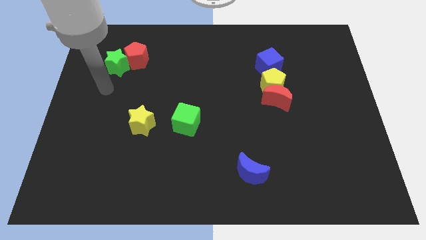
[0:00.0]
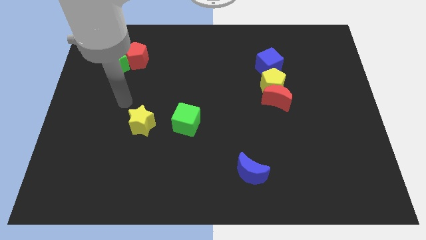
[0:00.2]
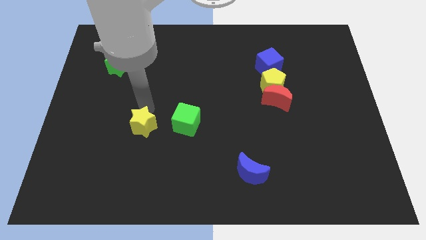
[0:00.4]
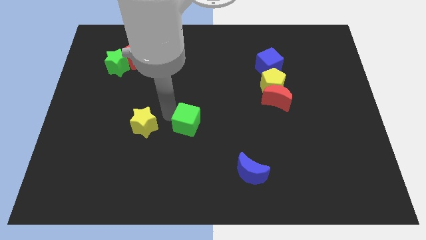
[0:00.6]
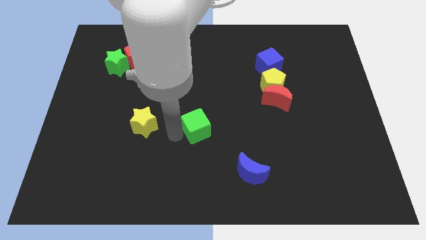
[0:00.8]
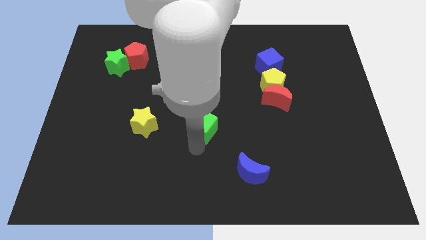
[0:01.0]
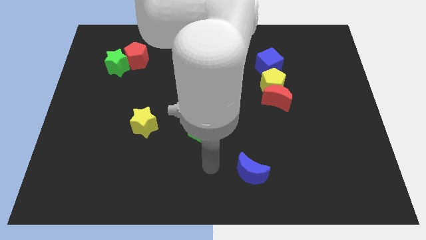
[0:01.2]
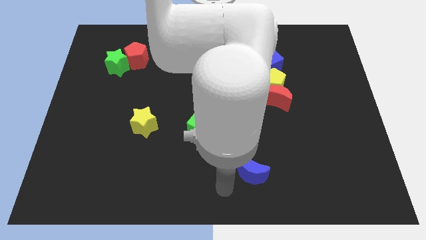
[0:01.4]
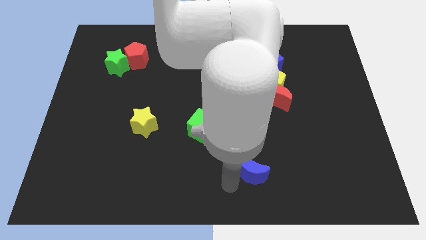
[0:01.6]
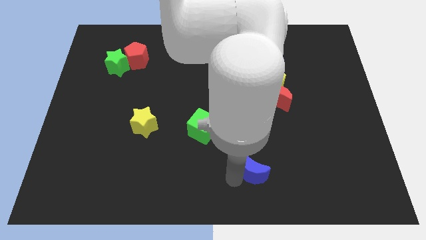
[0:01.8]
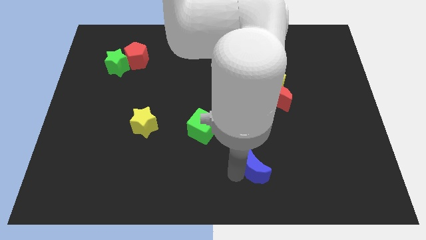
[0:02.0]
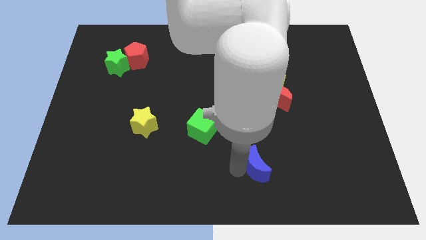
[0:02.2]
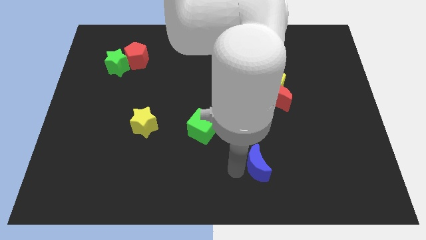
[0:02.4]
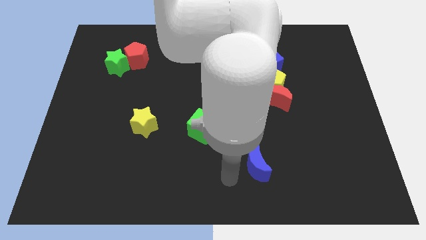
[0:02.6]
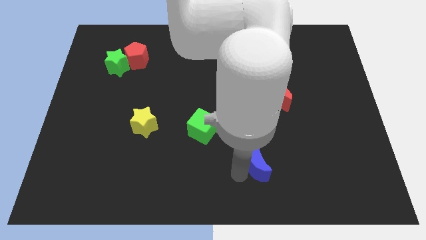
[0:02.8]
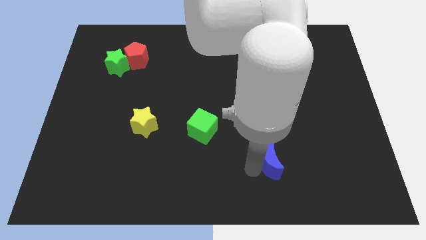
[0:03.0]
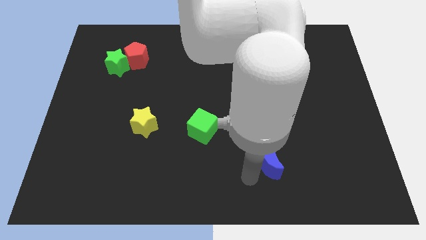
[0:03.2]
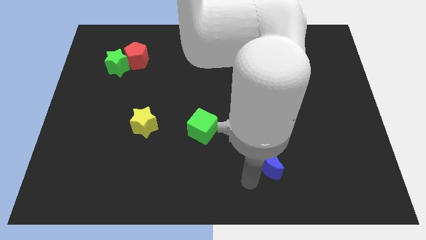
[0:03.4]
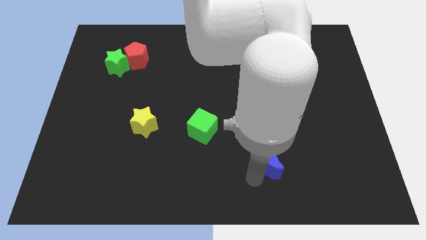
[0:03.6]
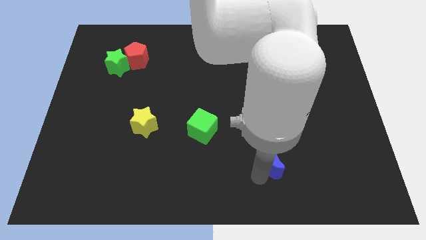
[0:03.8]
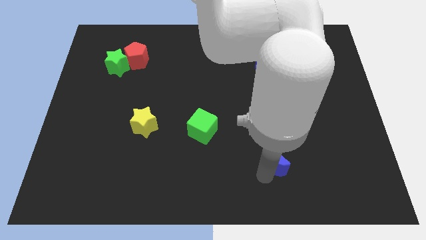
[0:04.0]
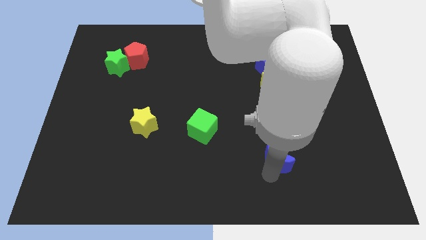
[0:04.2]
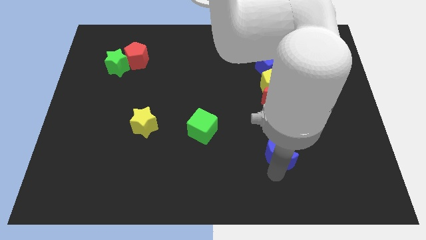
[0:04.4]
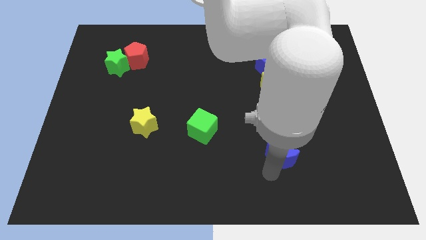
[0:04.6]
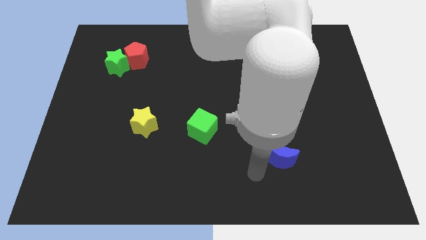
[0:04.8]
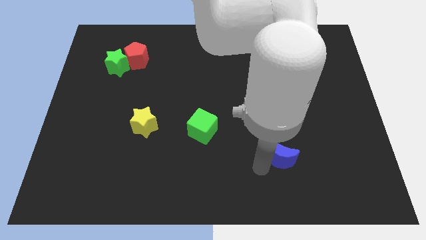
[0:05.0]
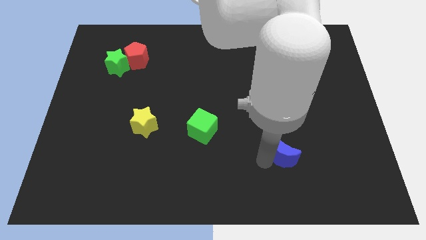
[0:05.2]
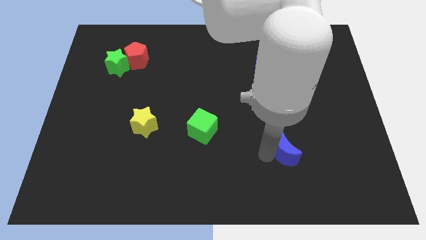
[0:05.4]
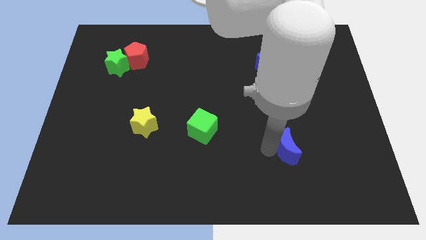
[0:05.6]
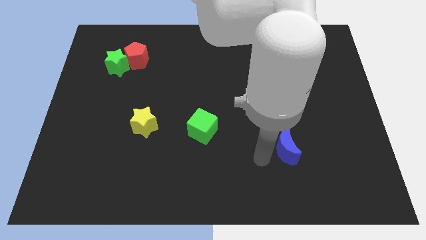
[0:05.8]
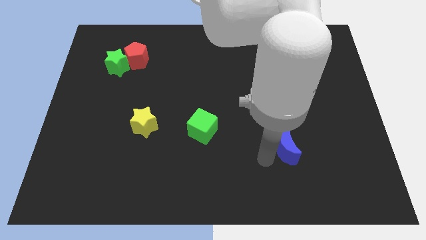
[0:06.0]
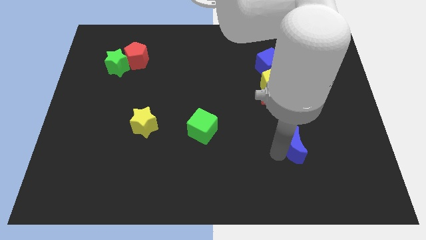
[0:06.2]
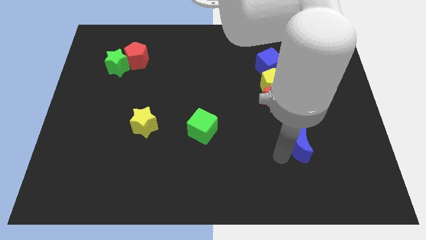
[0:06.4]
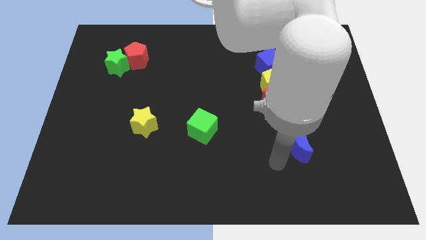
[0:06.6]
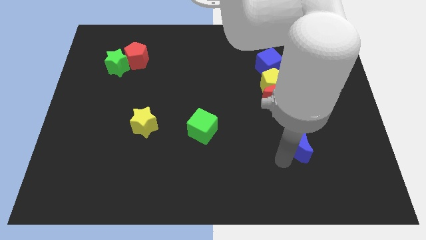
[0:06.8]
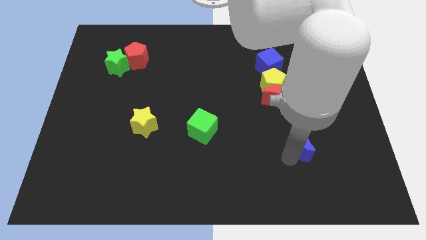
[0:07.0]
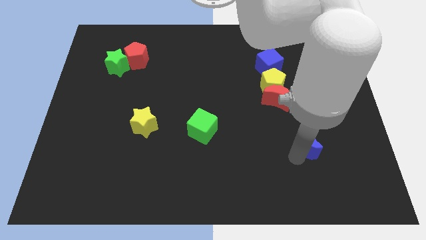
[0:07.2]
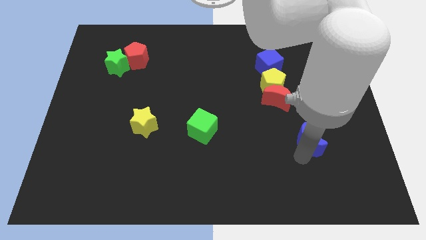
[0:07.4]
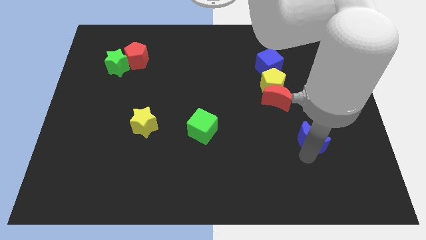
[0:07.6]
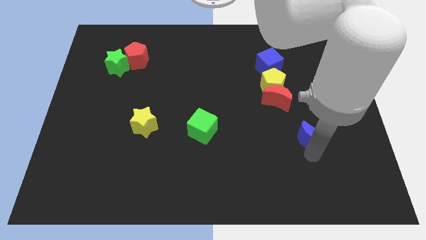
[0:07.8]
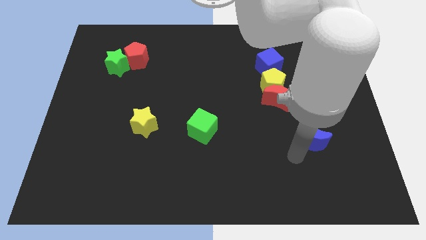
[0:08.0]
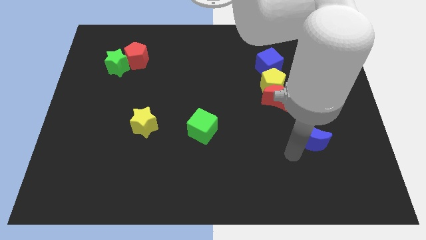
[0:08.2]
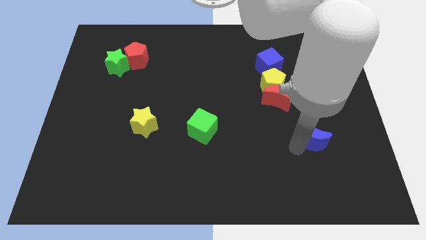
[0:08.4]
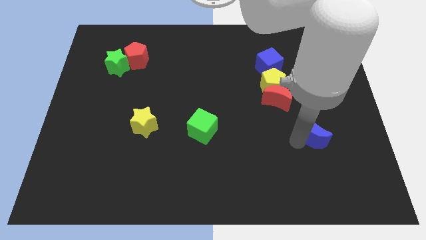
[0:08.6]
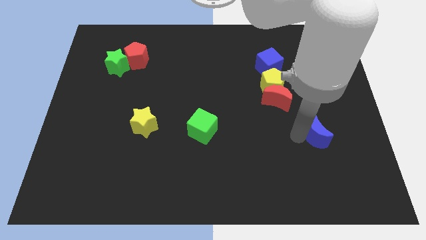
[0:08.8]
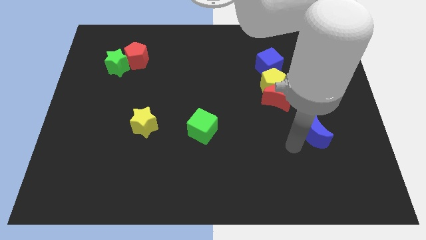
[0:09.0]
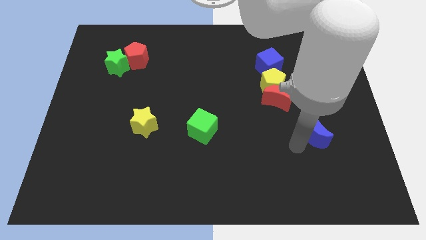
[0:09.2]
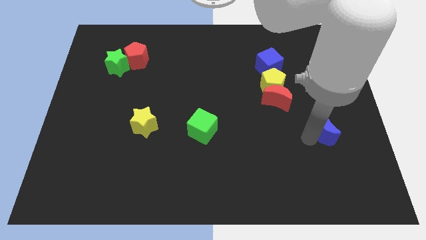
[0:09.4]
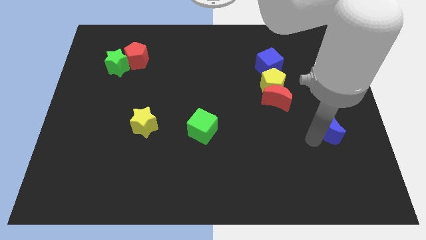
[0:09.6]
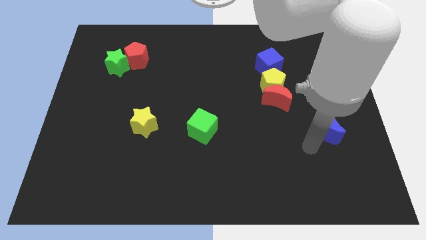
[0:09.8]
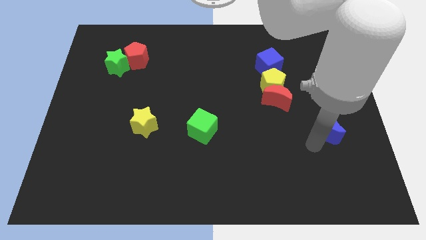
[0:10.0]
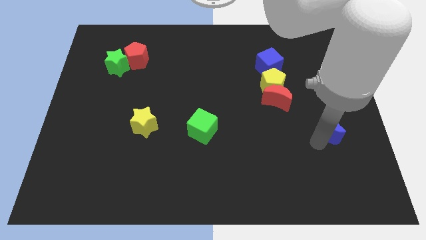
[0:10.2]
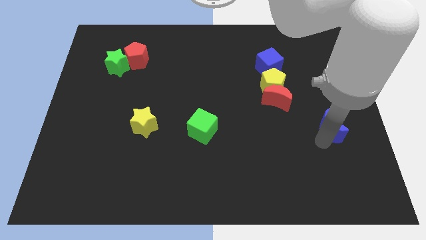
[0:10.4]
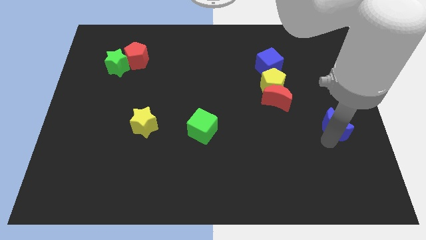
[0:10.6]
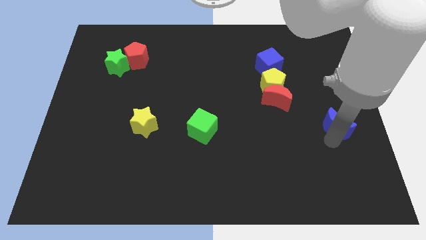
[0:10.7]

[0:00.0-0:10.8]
push the blue moon to the center right

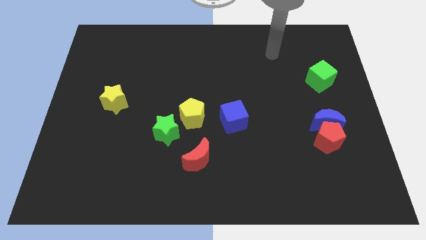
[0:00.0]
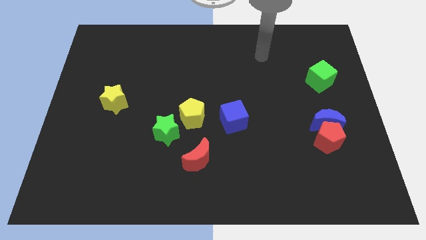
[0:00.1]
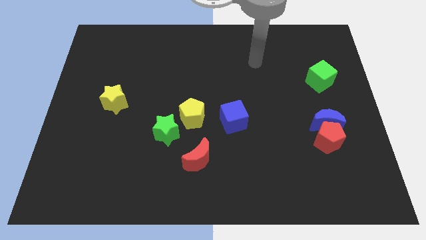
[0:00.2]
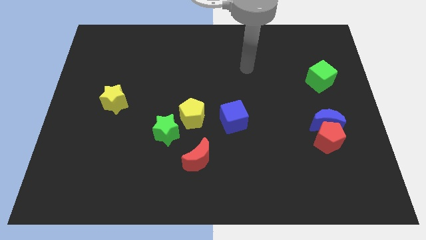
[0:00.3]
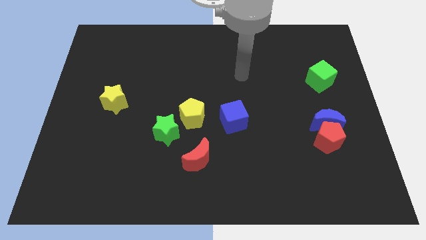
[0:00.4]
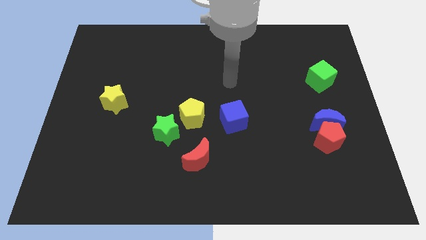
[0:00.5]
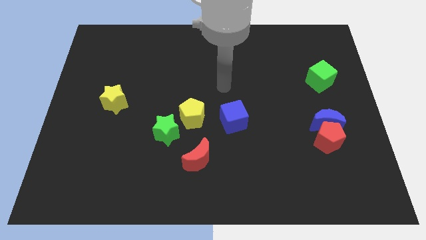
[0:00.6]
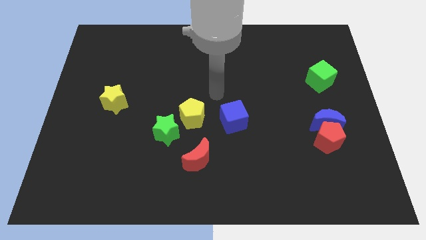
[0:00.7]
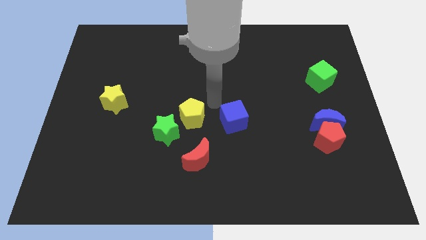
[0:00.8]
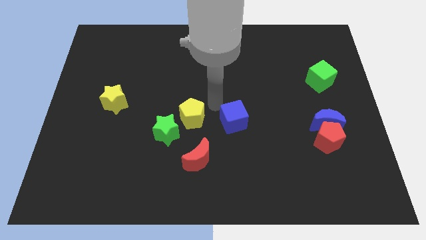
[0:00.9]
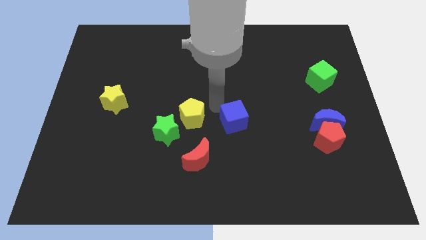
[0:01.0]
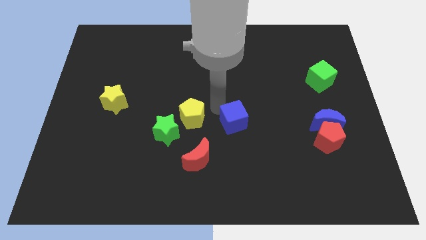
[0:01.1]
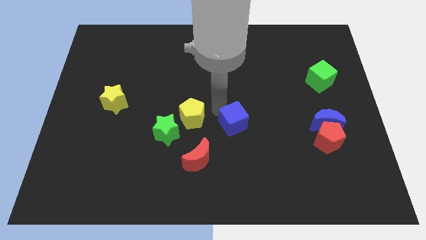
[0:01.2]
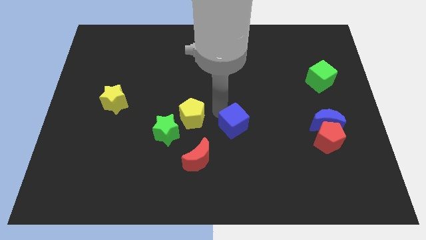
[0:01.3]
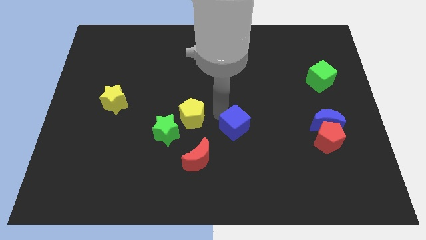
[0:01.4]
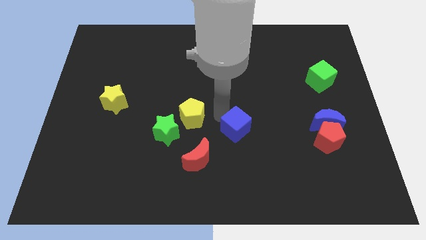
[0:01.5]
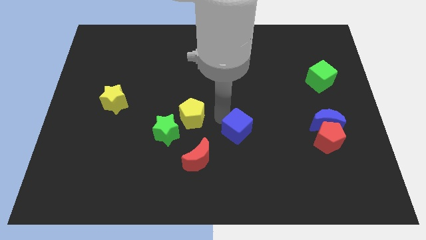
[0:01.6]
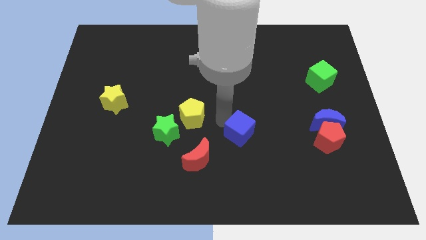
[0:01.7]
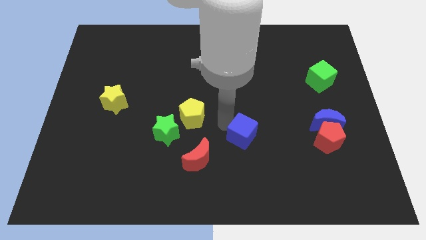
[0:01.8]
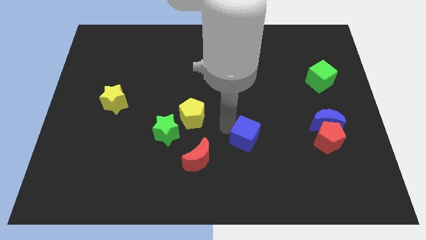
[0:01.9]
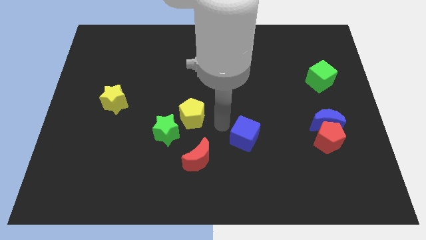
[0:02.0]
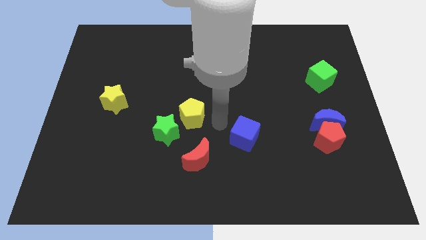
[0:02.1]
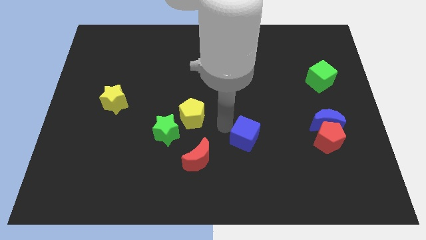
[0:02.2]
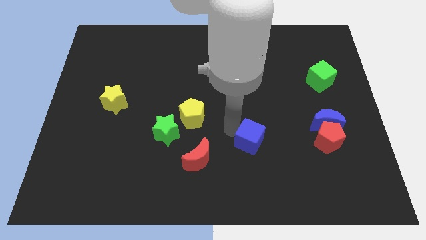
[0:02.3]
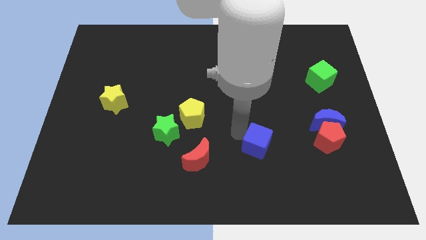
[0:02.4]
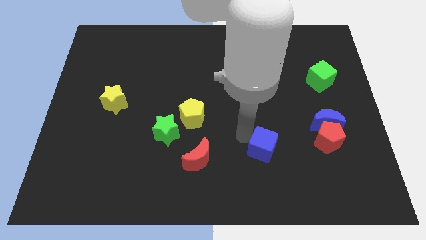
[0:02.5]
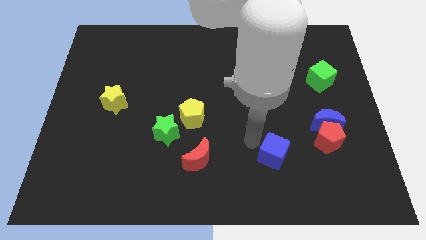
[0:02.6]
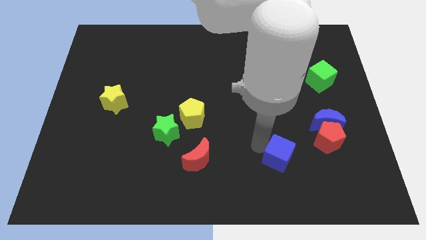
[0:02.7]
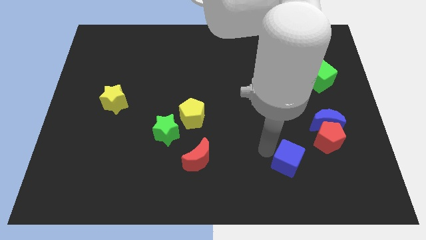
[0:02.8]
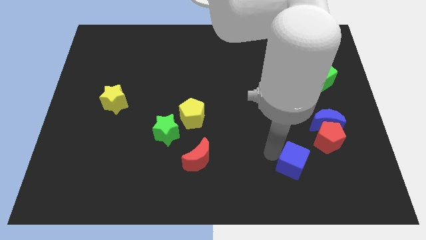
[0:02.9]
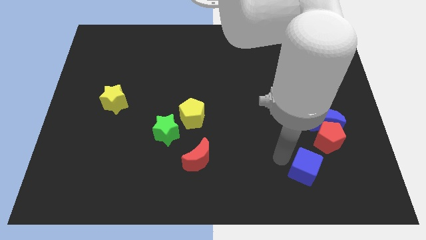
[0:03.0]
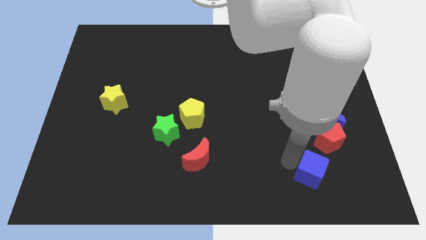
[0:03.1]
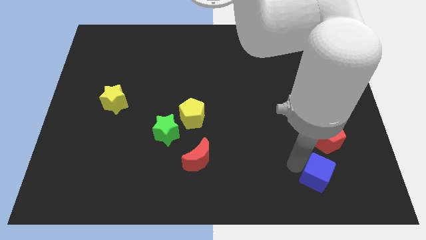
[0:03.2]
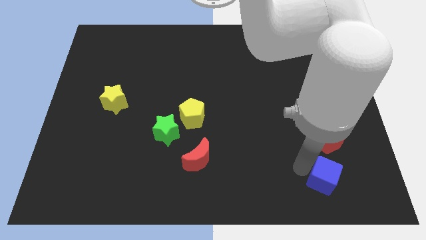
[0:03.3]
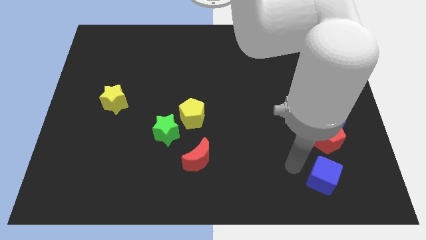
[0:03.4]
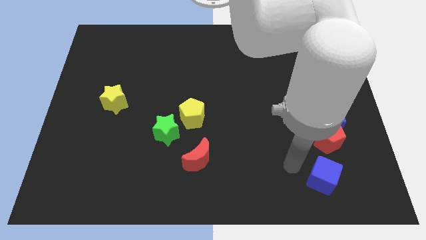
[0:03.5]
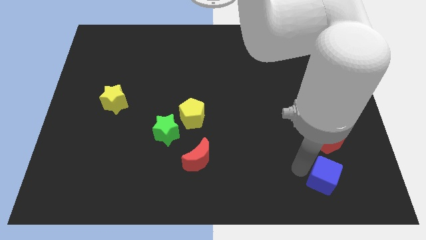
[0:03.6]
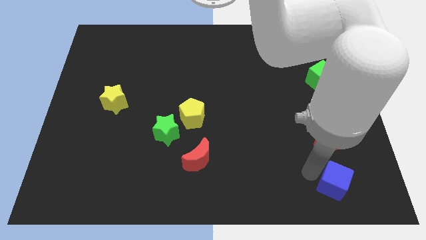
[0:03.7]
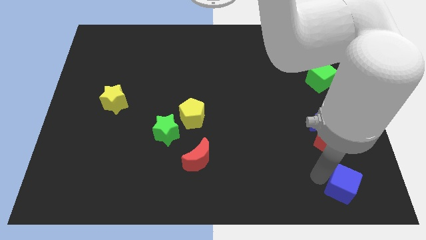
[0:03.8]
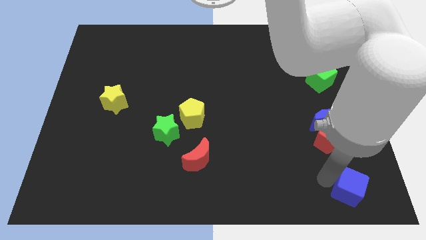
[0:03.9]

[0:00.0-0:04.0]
push the blue cube to the bottom right of the board
